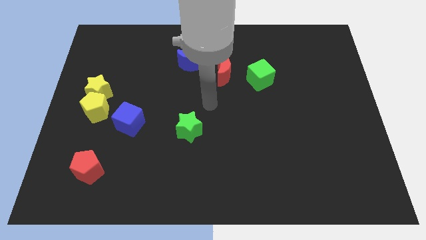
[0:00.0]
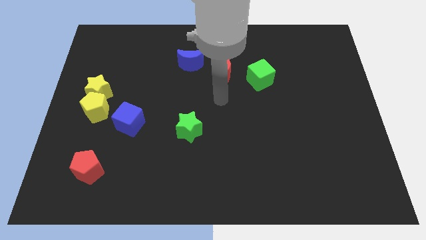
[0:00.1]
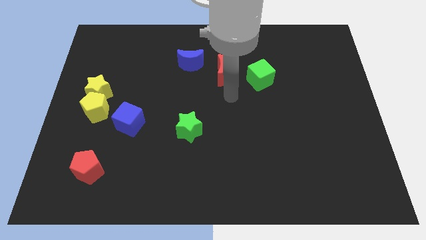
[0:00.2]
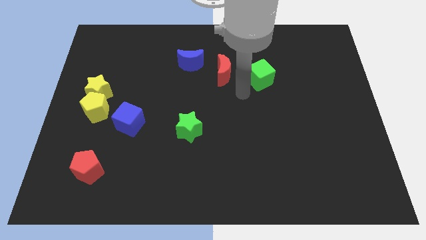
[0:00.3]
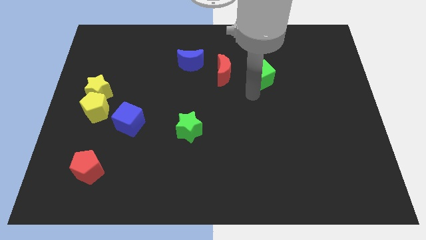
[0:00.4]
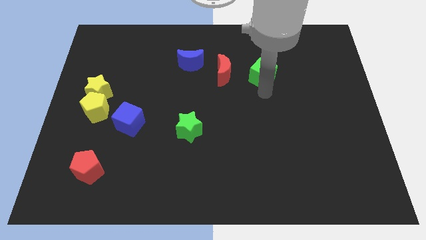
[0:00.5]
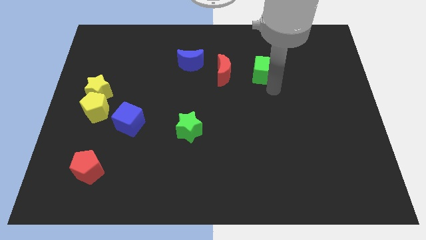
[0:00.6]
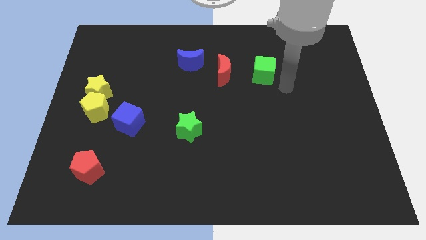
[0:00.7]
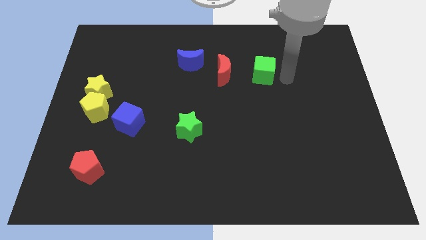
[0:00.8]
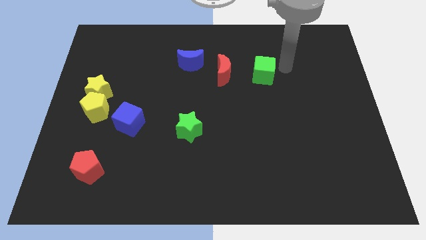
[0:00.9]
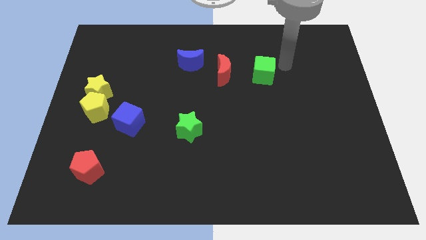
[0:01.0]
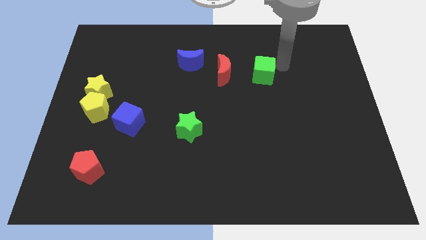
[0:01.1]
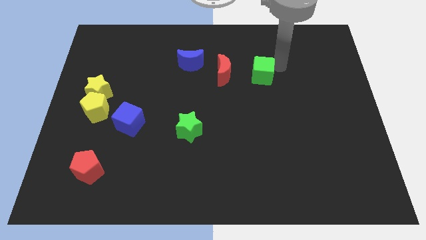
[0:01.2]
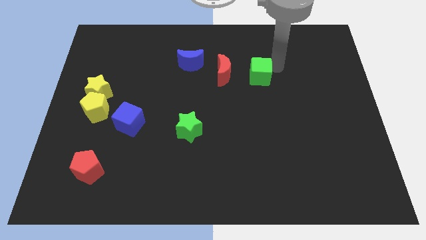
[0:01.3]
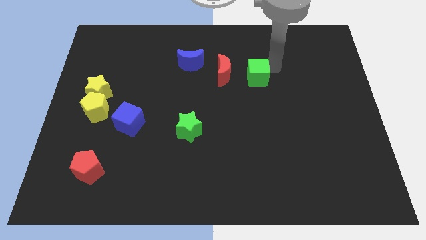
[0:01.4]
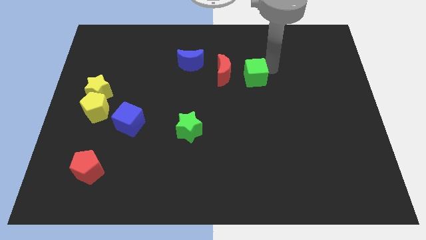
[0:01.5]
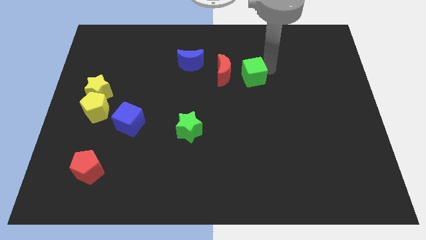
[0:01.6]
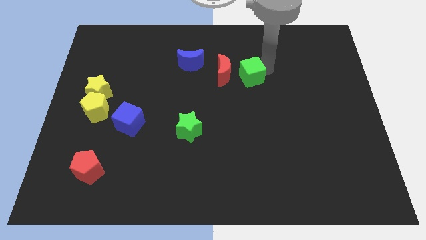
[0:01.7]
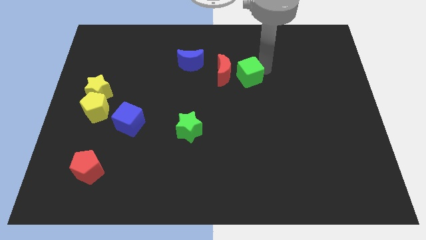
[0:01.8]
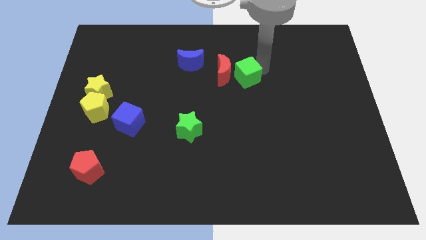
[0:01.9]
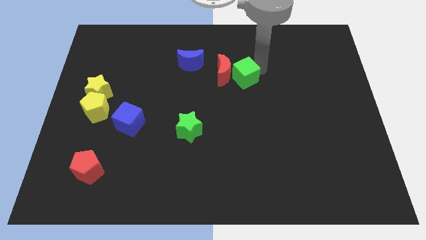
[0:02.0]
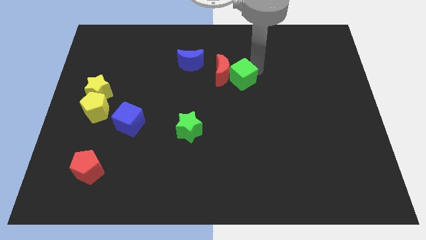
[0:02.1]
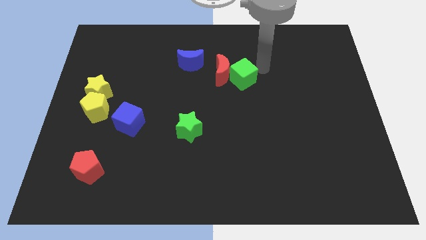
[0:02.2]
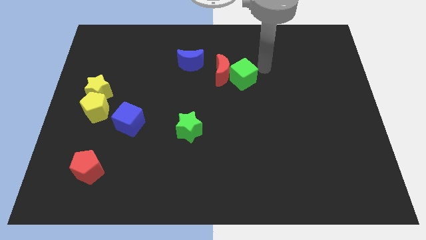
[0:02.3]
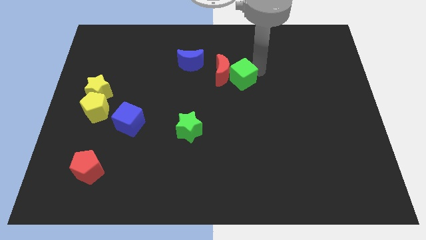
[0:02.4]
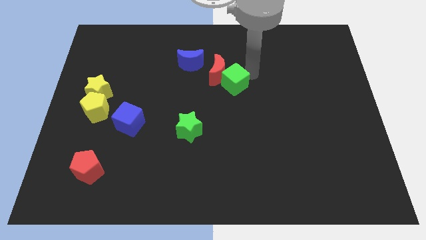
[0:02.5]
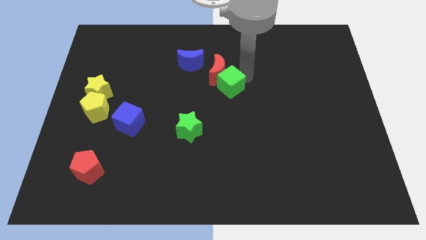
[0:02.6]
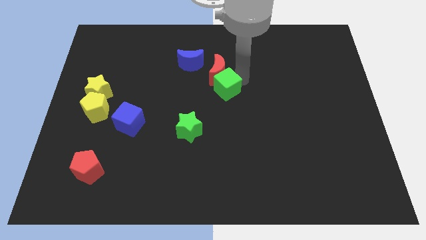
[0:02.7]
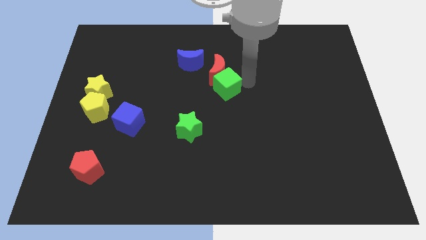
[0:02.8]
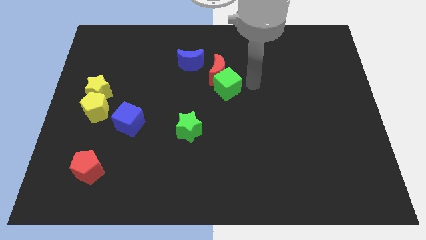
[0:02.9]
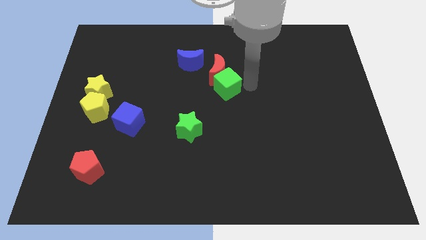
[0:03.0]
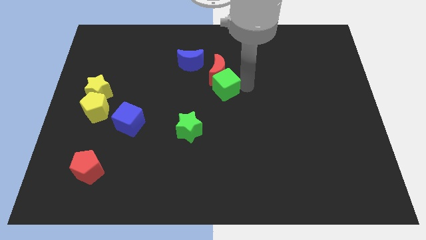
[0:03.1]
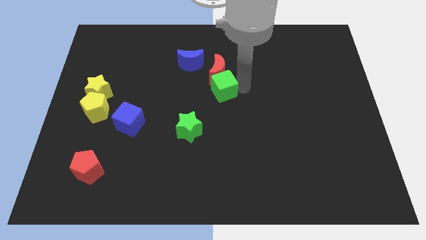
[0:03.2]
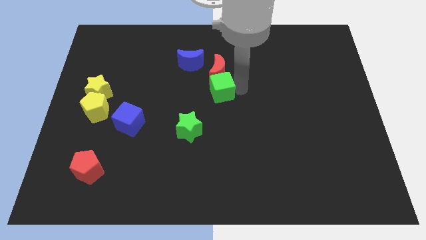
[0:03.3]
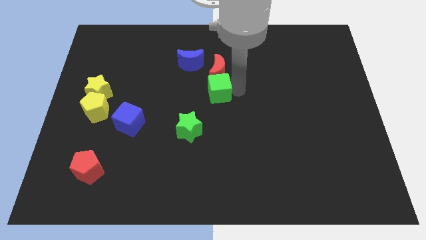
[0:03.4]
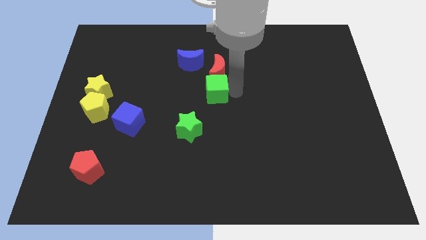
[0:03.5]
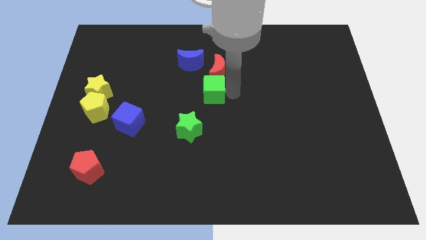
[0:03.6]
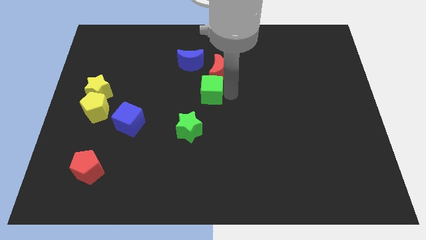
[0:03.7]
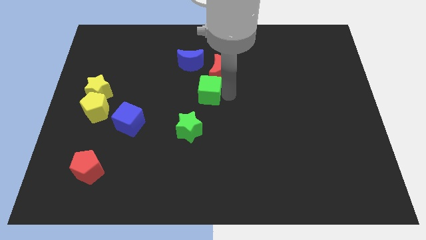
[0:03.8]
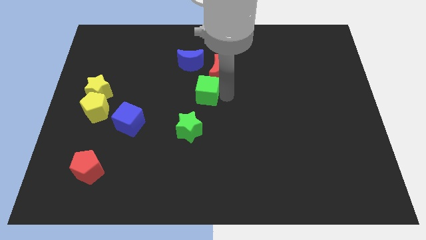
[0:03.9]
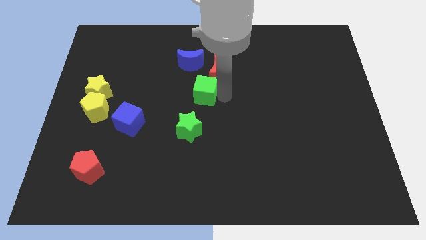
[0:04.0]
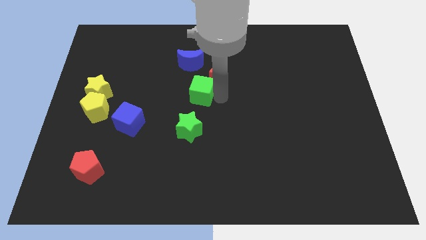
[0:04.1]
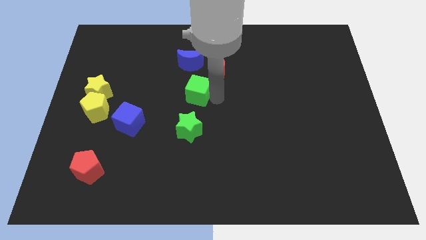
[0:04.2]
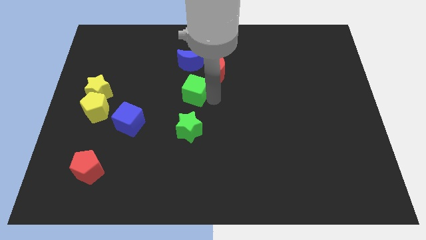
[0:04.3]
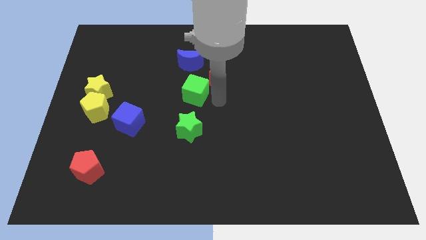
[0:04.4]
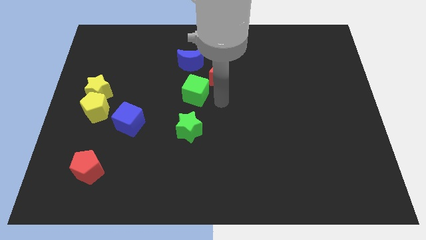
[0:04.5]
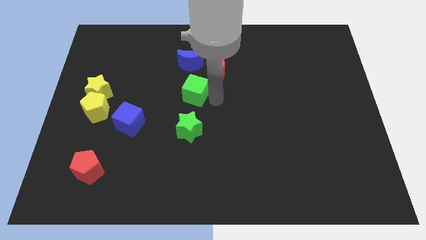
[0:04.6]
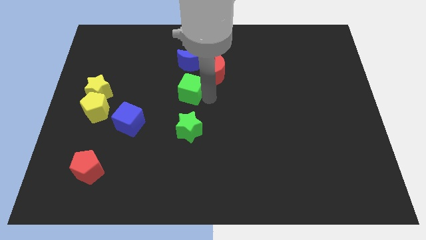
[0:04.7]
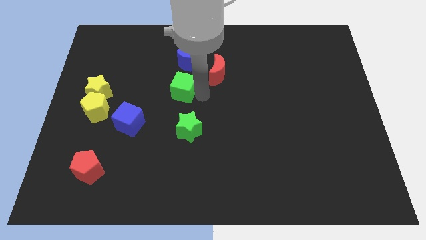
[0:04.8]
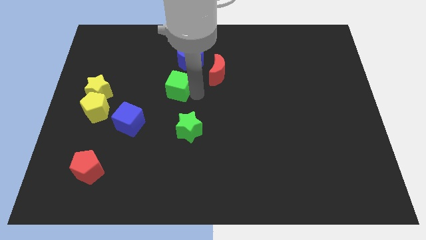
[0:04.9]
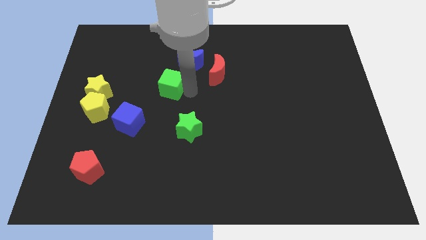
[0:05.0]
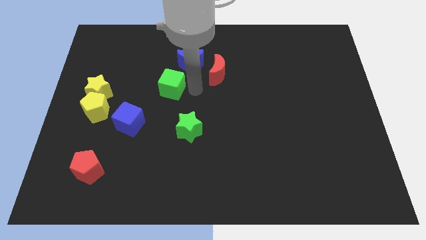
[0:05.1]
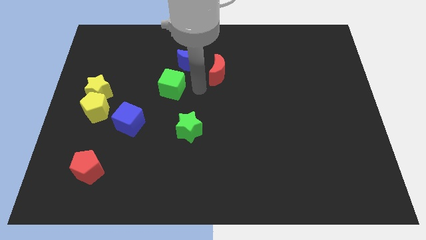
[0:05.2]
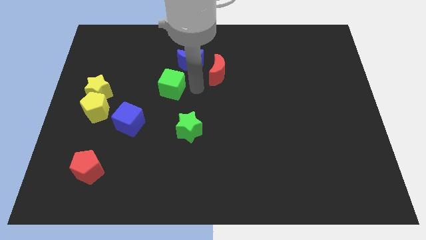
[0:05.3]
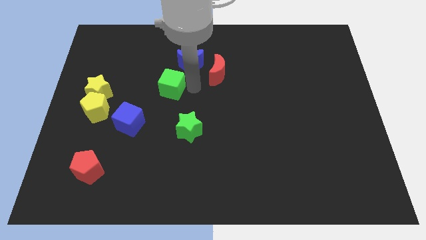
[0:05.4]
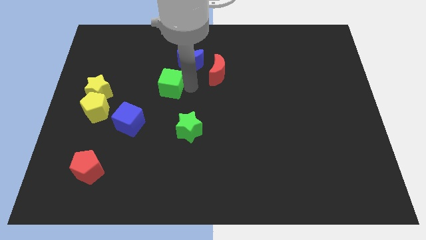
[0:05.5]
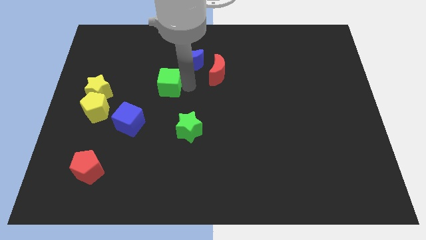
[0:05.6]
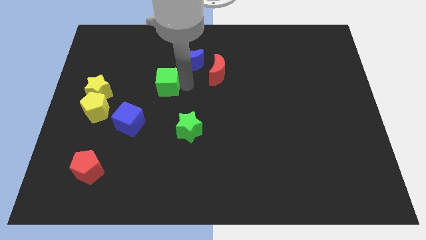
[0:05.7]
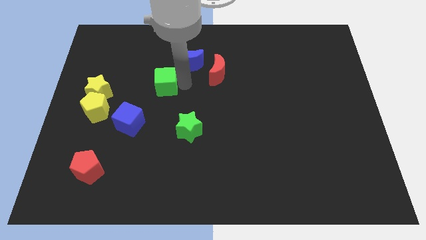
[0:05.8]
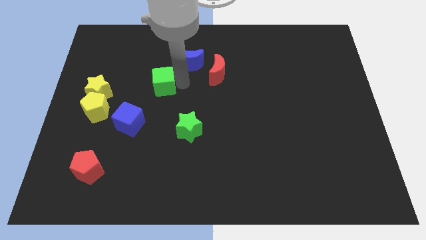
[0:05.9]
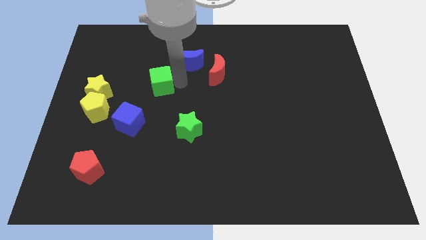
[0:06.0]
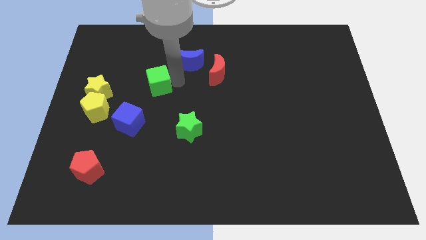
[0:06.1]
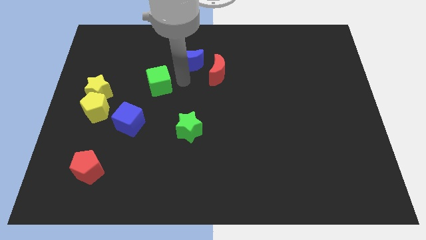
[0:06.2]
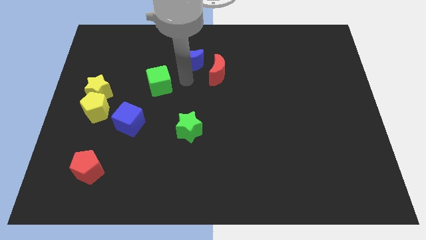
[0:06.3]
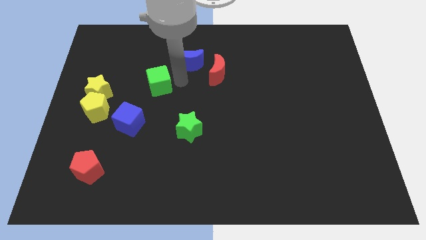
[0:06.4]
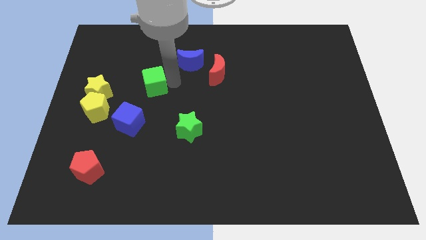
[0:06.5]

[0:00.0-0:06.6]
slide the green cube above the blue cube
